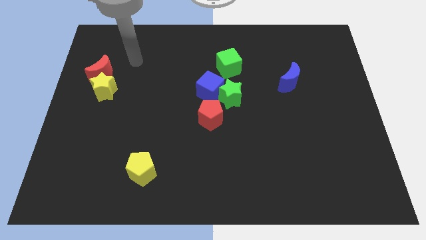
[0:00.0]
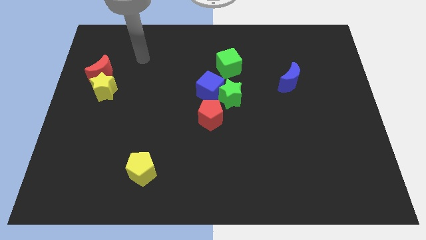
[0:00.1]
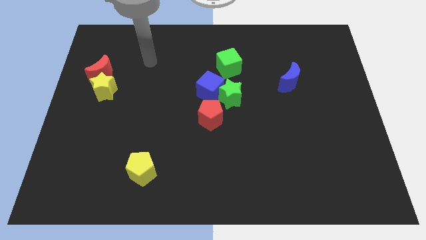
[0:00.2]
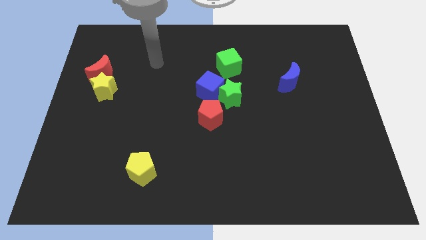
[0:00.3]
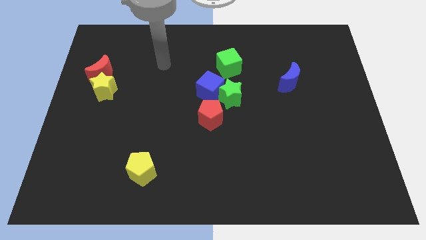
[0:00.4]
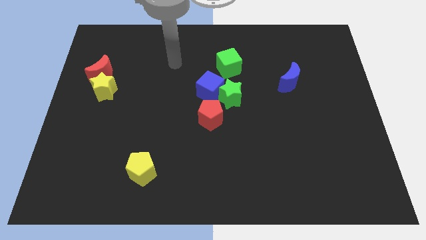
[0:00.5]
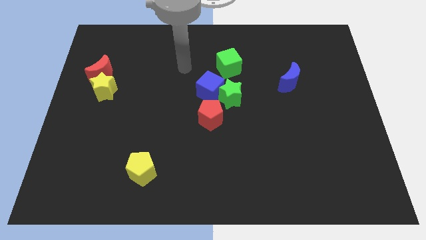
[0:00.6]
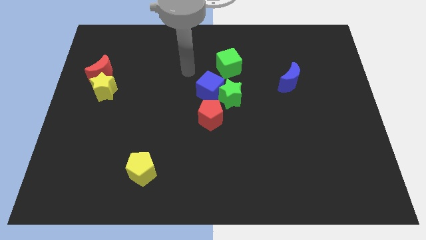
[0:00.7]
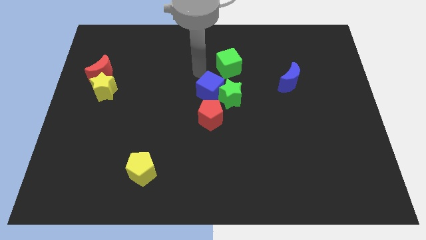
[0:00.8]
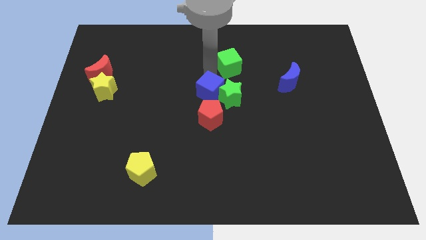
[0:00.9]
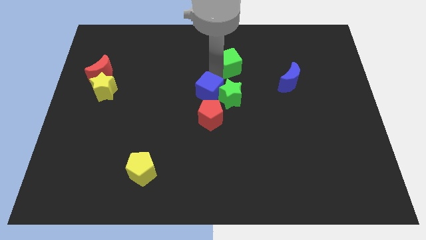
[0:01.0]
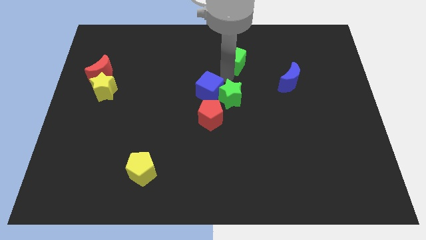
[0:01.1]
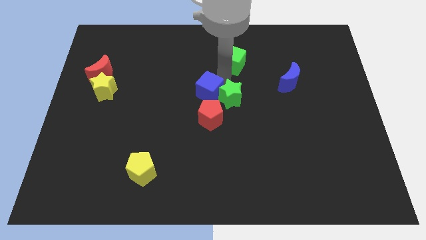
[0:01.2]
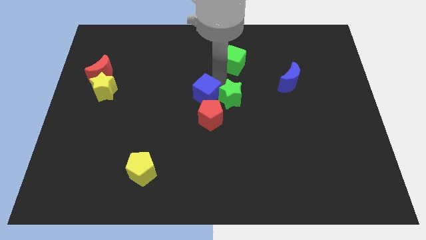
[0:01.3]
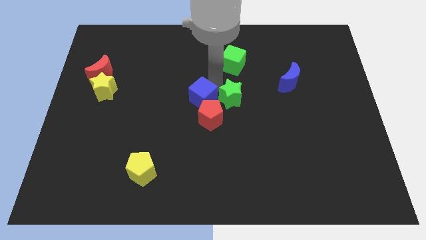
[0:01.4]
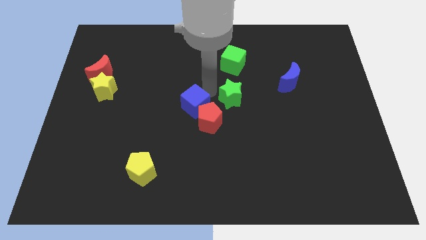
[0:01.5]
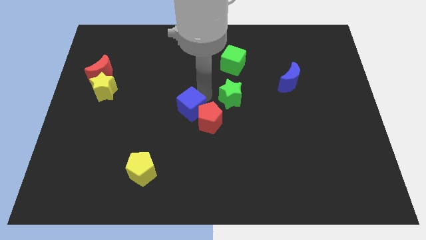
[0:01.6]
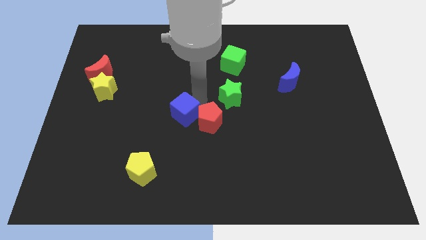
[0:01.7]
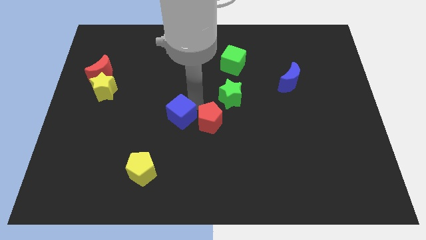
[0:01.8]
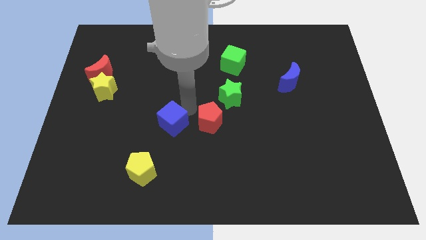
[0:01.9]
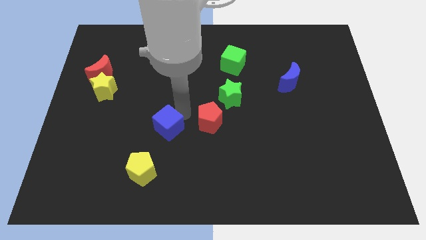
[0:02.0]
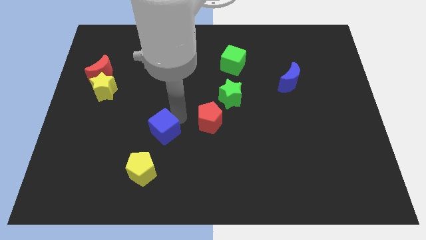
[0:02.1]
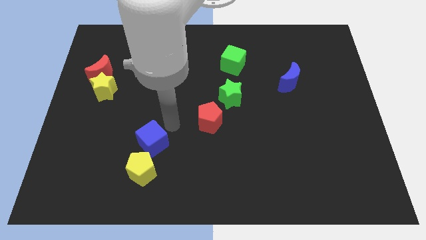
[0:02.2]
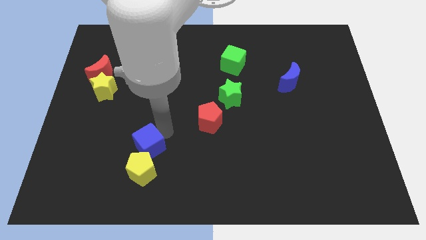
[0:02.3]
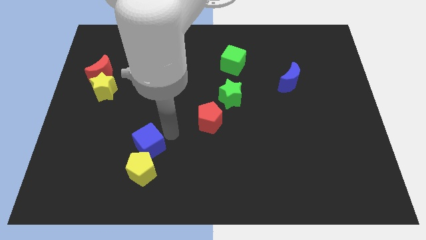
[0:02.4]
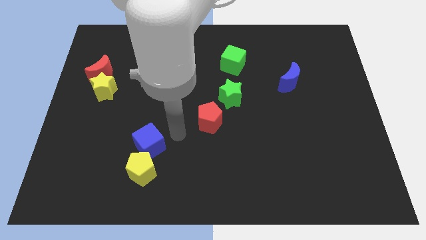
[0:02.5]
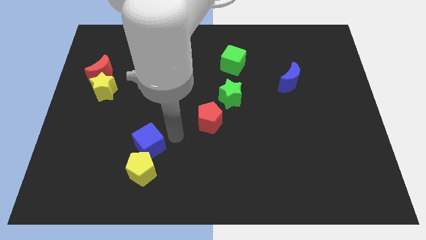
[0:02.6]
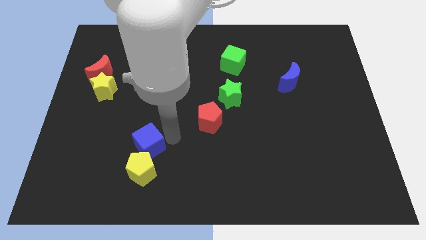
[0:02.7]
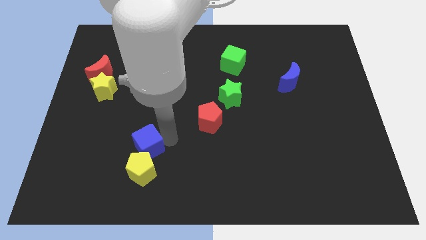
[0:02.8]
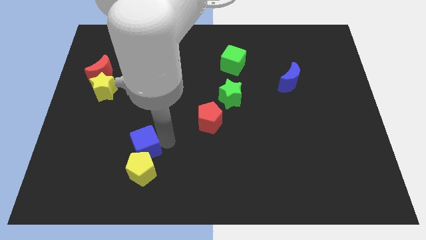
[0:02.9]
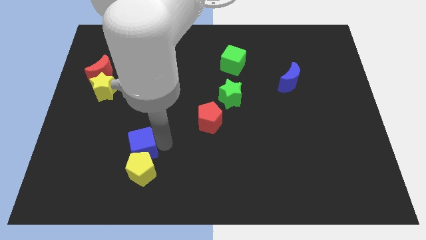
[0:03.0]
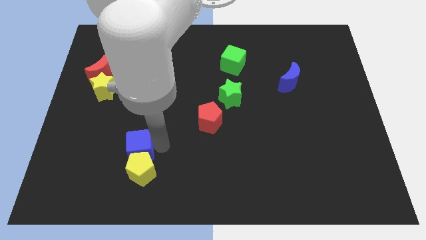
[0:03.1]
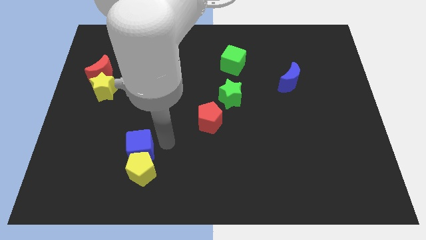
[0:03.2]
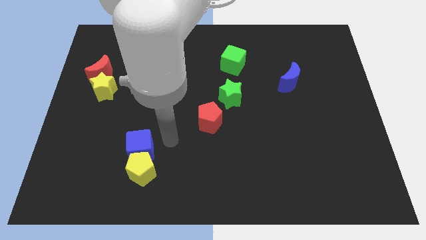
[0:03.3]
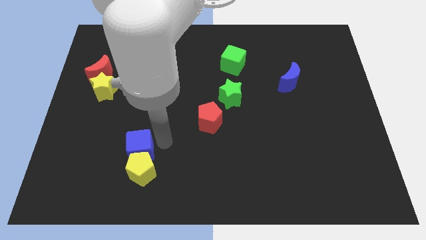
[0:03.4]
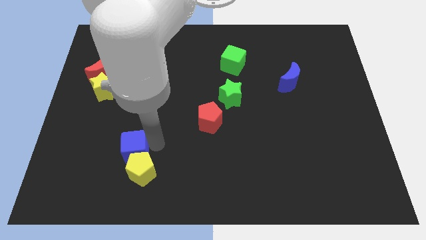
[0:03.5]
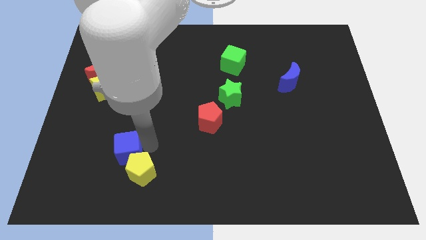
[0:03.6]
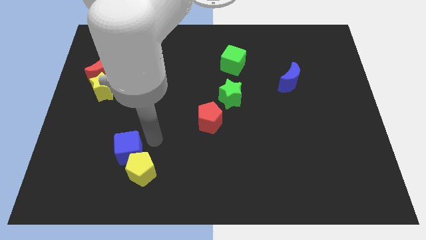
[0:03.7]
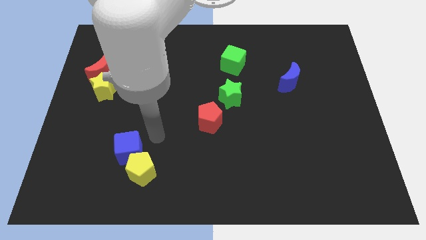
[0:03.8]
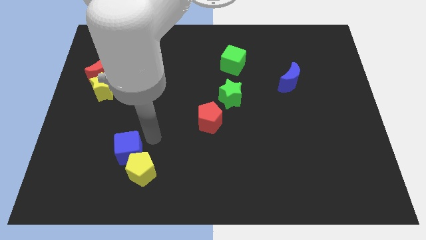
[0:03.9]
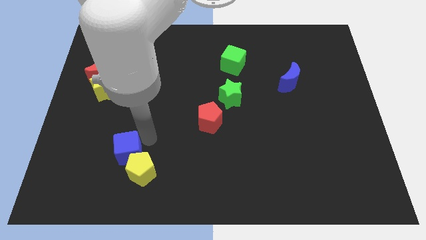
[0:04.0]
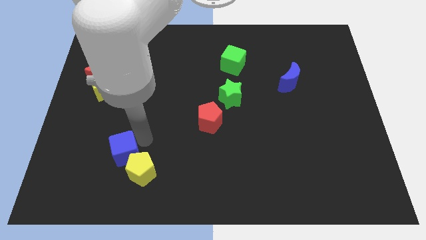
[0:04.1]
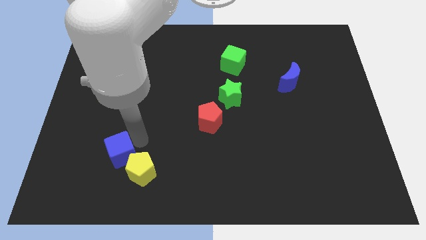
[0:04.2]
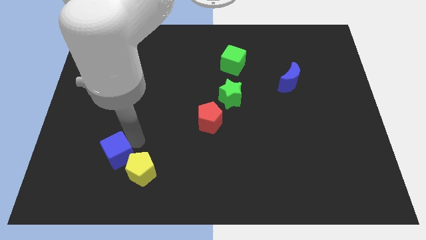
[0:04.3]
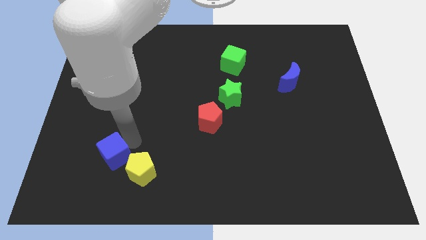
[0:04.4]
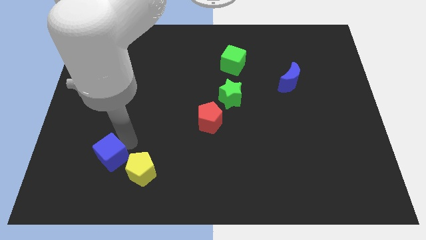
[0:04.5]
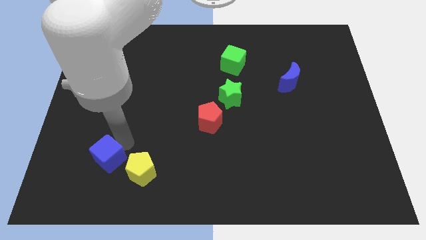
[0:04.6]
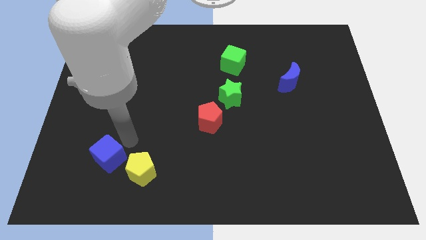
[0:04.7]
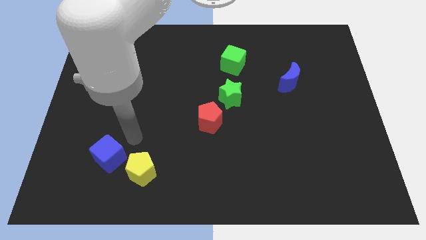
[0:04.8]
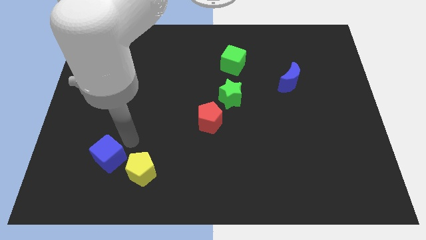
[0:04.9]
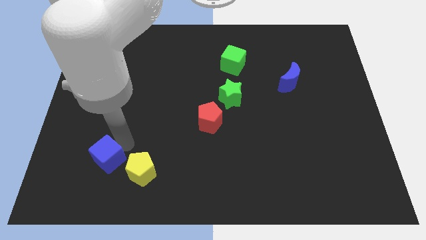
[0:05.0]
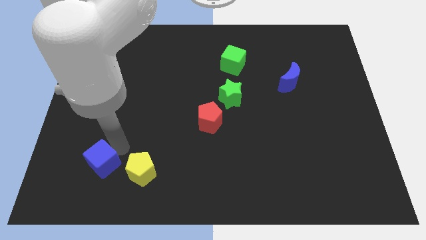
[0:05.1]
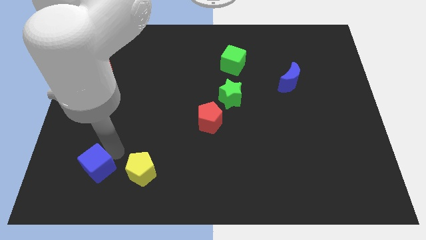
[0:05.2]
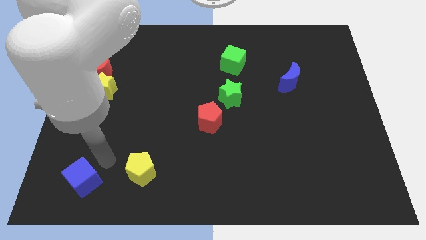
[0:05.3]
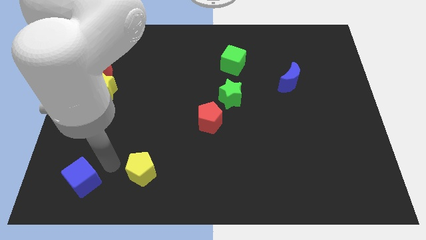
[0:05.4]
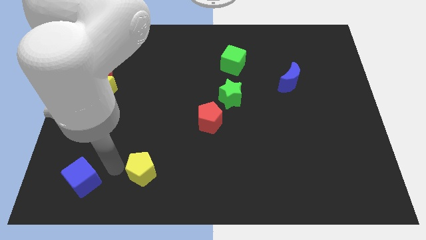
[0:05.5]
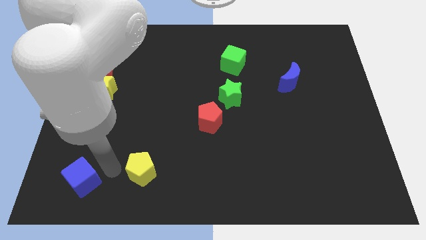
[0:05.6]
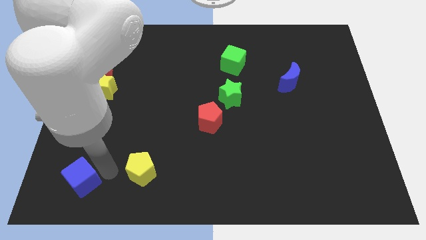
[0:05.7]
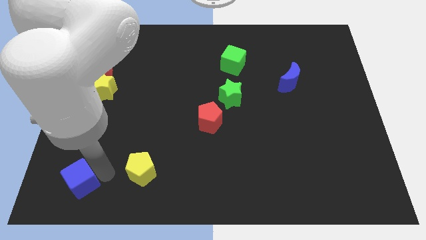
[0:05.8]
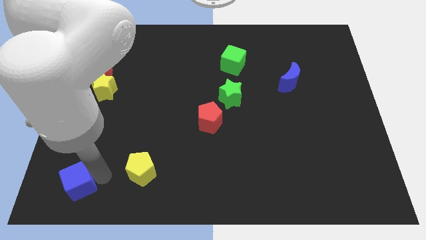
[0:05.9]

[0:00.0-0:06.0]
slide the blue cube to the lower left corner

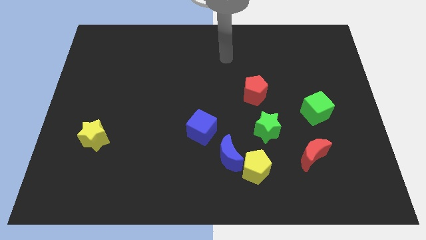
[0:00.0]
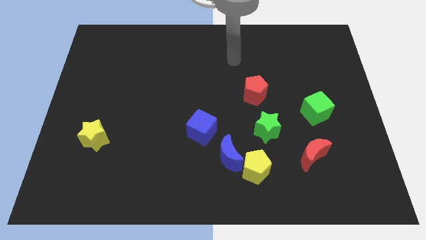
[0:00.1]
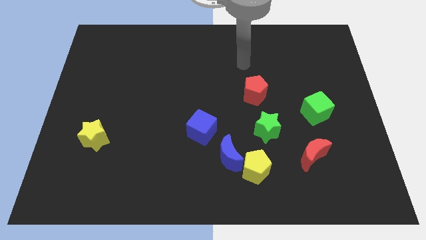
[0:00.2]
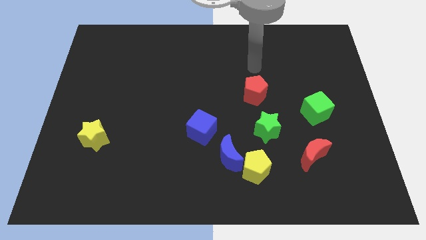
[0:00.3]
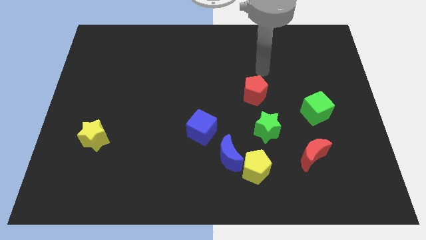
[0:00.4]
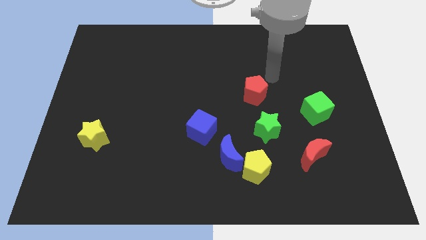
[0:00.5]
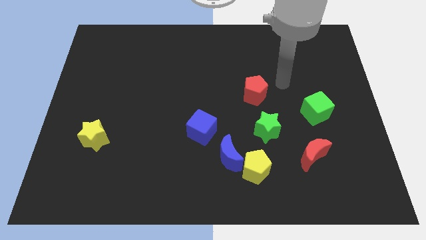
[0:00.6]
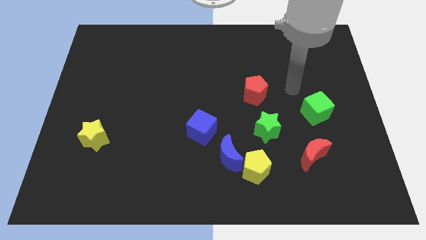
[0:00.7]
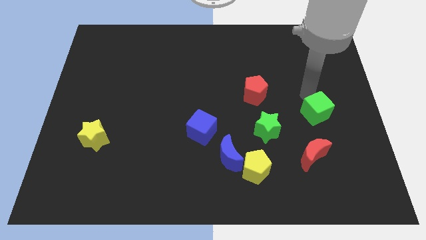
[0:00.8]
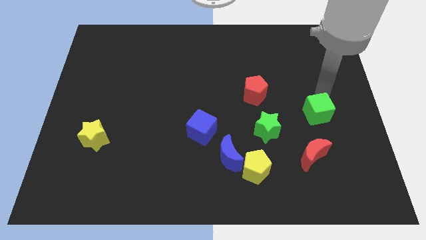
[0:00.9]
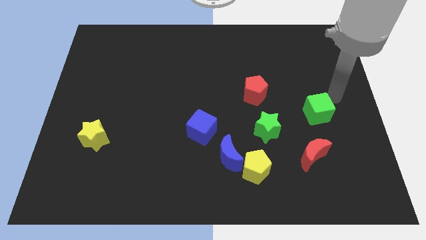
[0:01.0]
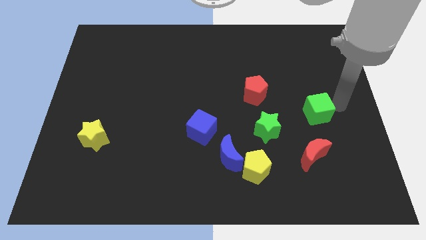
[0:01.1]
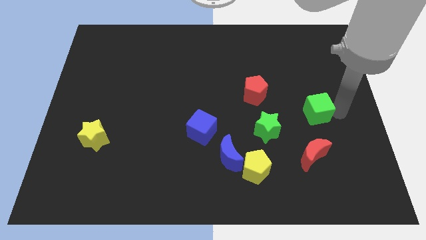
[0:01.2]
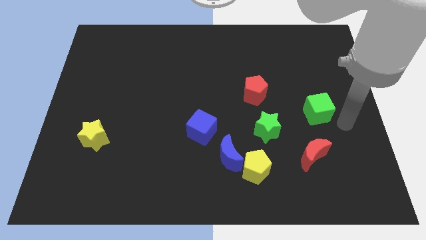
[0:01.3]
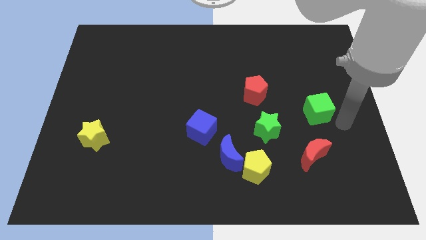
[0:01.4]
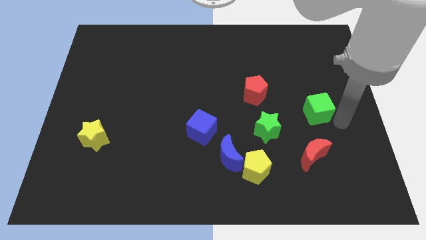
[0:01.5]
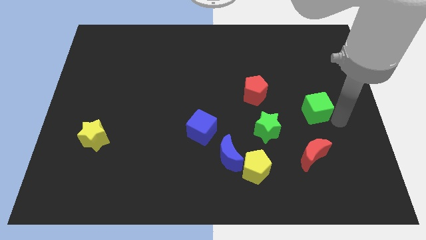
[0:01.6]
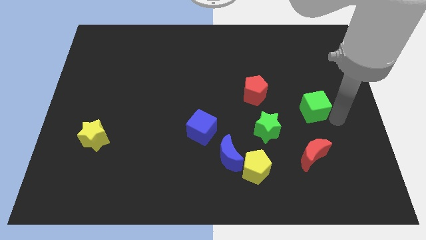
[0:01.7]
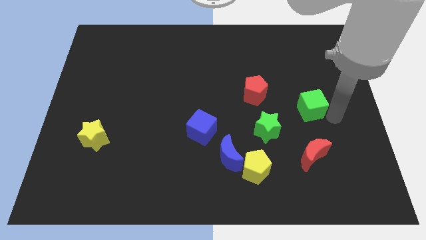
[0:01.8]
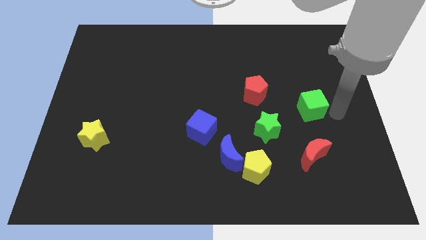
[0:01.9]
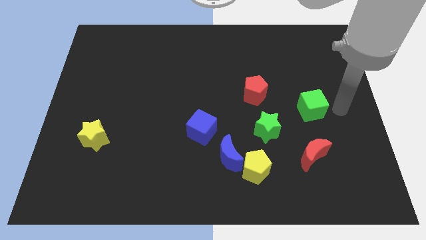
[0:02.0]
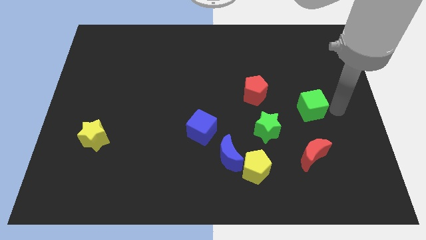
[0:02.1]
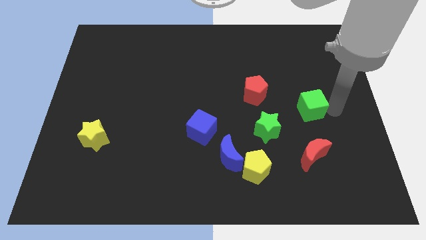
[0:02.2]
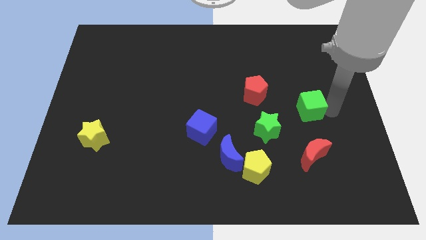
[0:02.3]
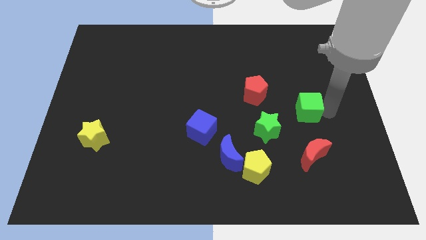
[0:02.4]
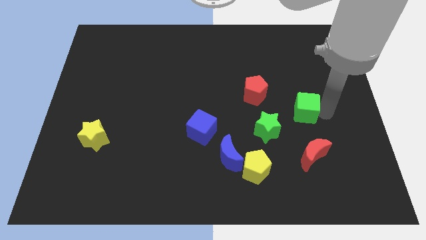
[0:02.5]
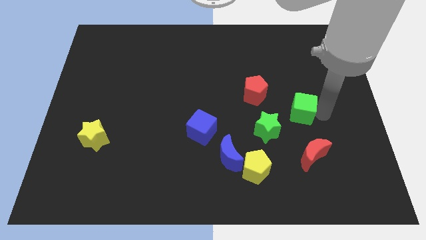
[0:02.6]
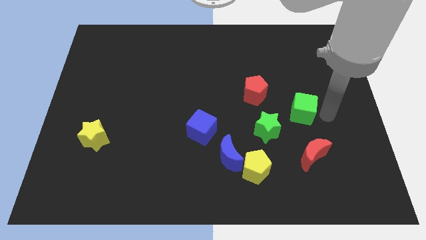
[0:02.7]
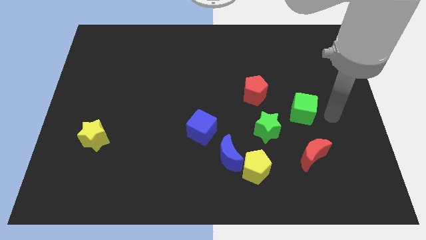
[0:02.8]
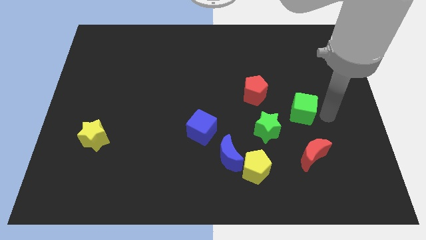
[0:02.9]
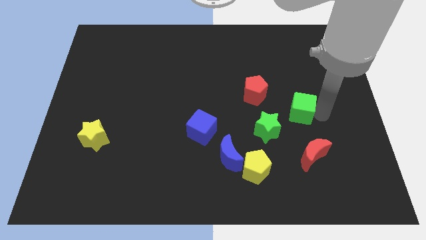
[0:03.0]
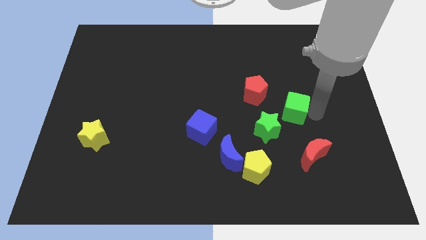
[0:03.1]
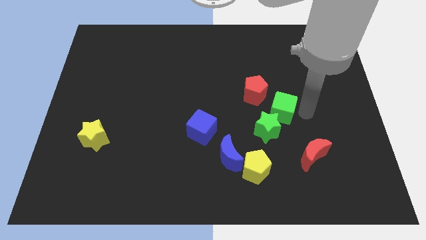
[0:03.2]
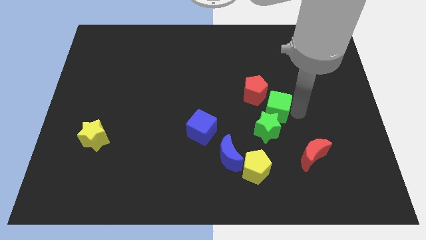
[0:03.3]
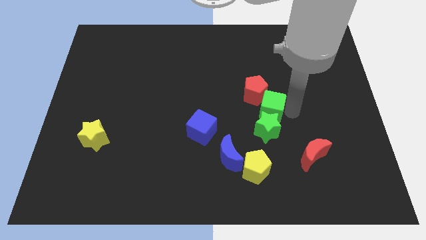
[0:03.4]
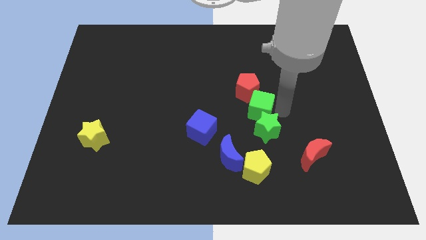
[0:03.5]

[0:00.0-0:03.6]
slide the green cube to the center
